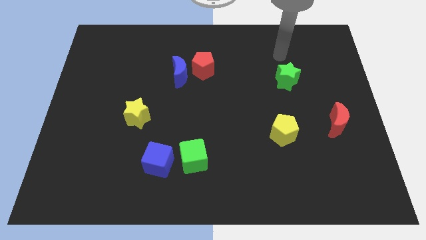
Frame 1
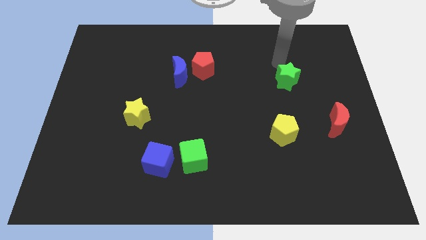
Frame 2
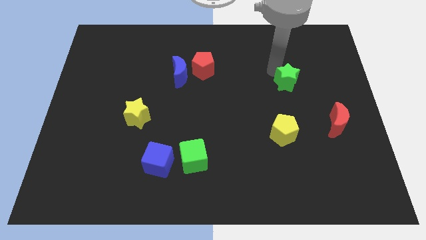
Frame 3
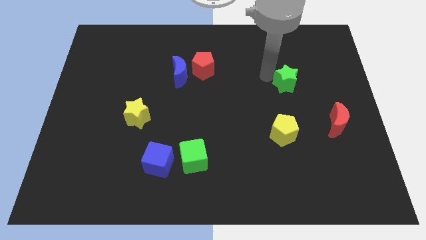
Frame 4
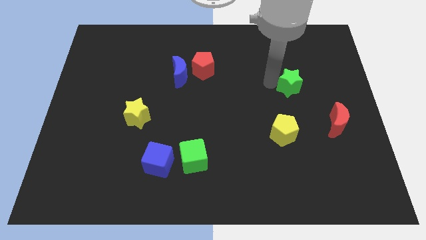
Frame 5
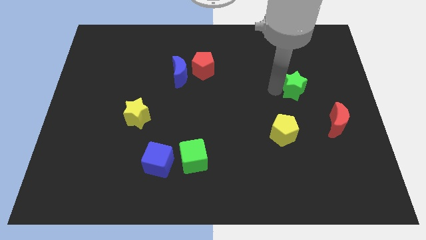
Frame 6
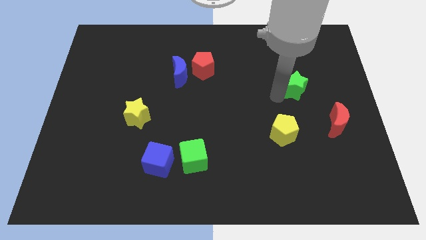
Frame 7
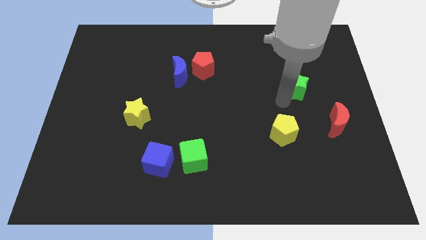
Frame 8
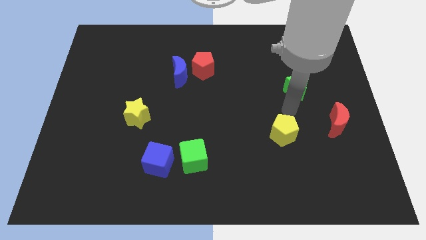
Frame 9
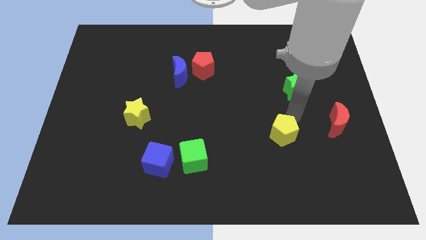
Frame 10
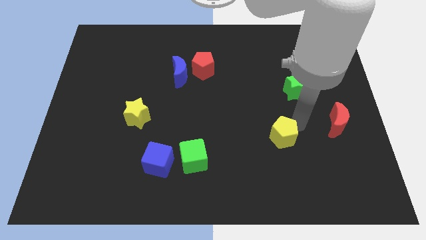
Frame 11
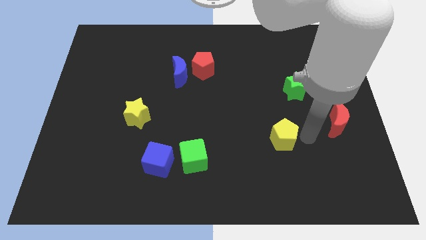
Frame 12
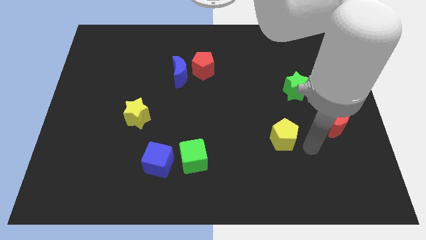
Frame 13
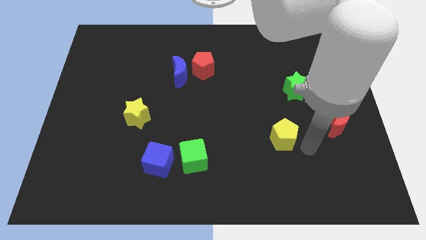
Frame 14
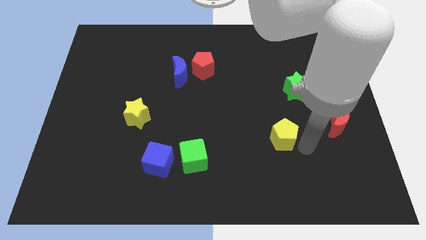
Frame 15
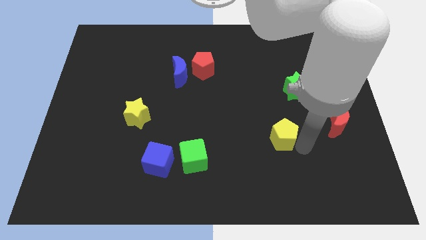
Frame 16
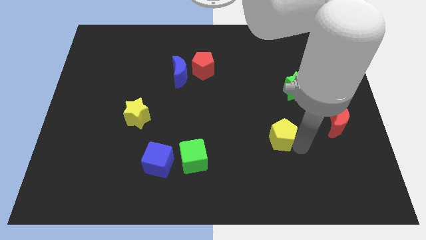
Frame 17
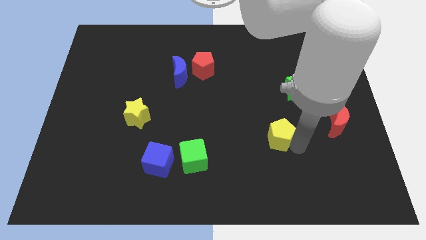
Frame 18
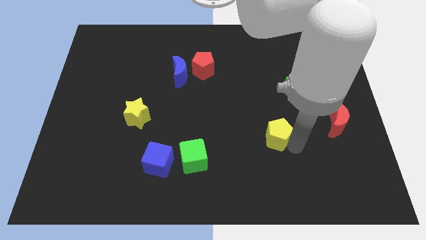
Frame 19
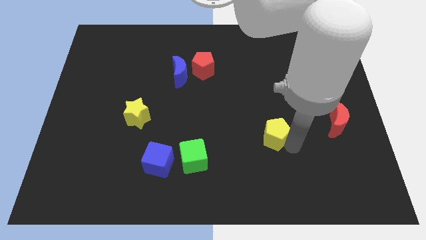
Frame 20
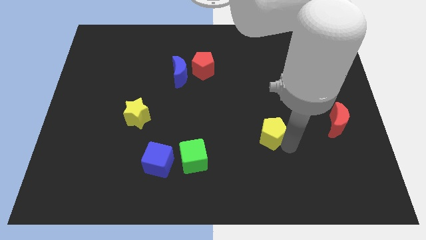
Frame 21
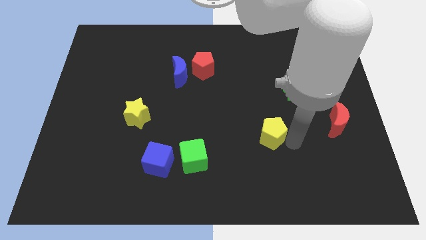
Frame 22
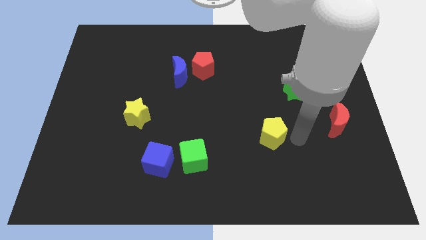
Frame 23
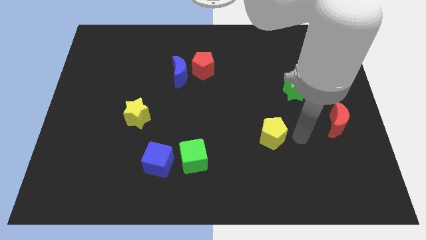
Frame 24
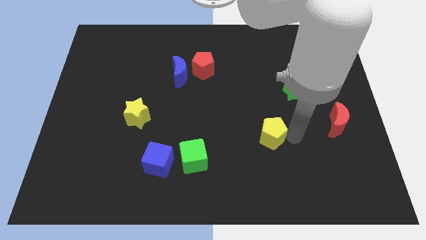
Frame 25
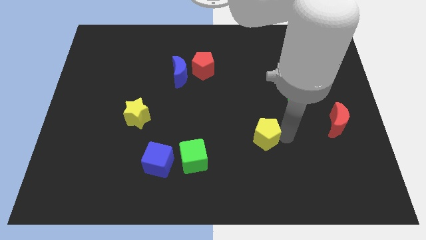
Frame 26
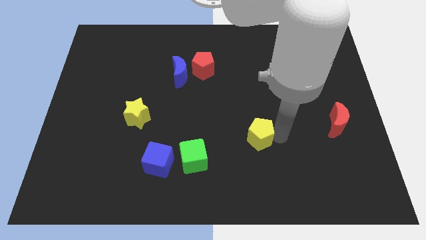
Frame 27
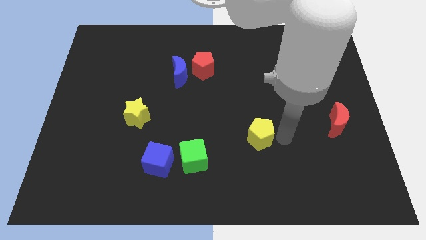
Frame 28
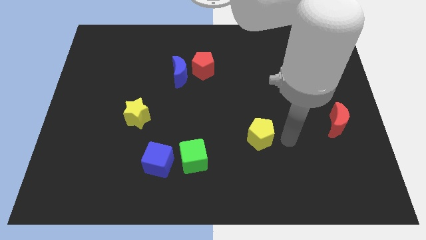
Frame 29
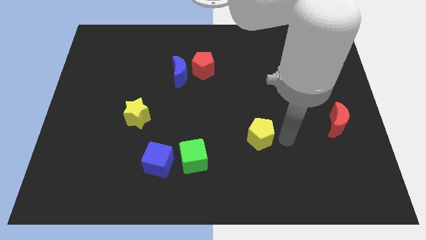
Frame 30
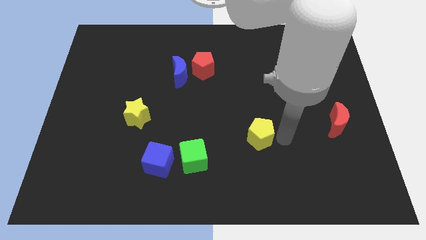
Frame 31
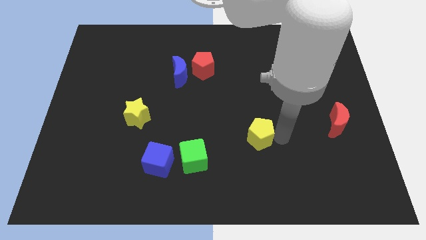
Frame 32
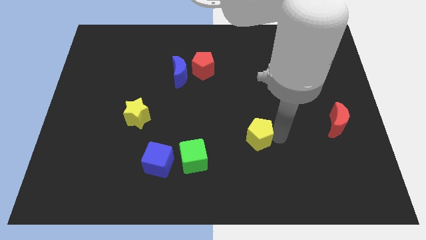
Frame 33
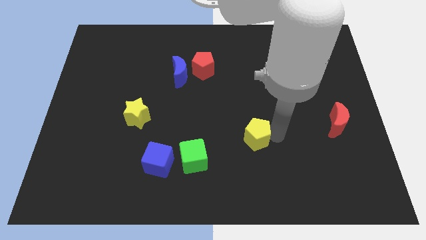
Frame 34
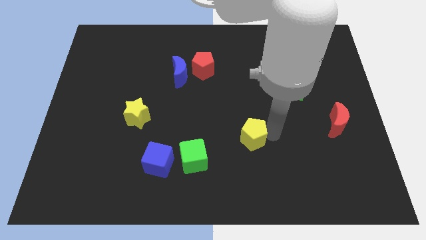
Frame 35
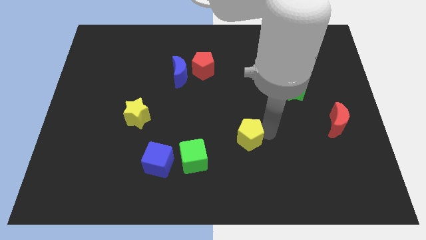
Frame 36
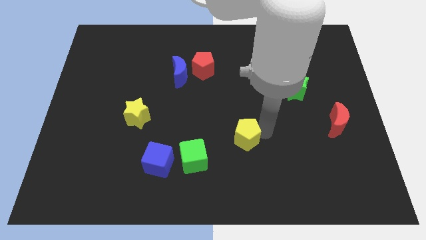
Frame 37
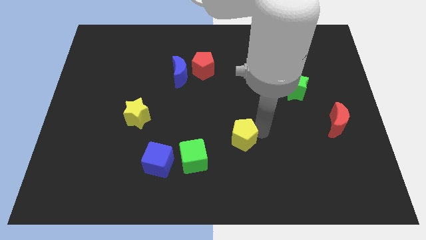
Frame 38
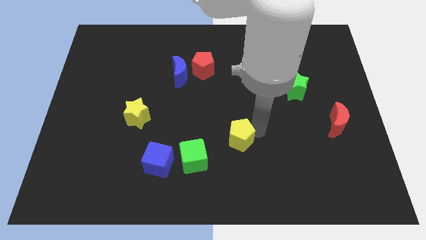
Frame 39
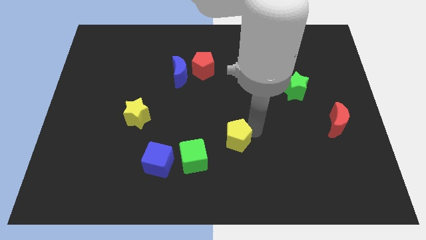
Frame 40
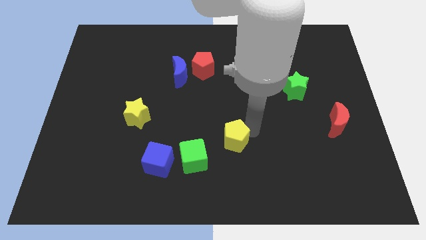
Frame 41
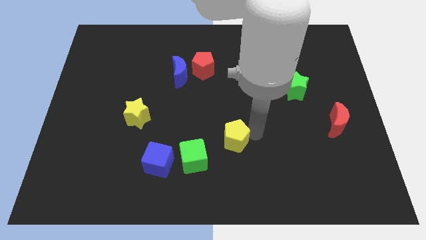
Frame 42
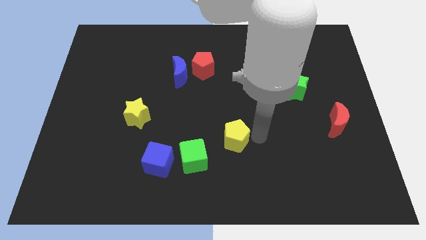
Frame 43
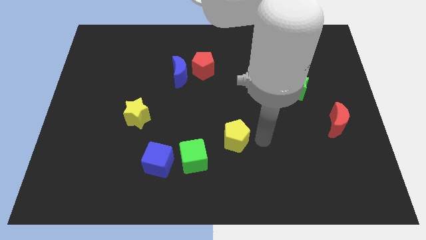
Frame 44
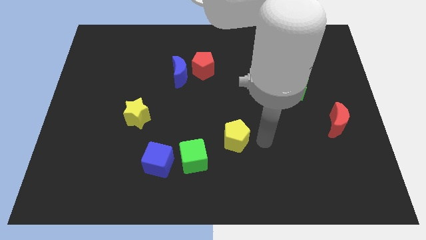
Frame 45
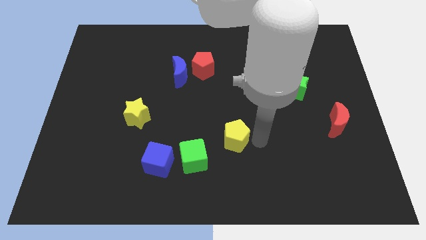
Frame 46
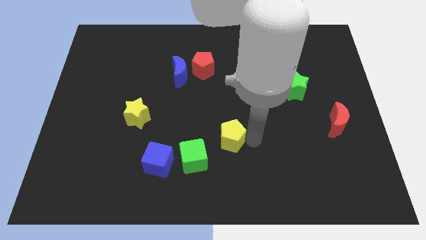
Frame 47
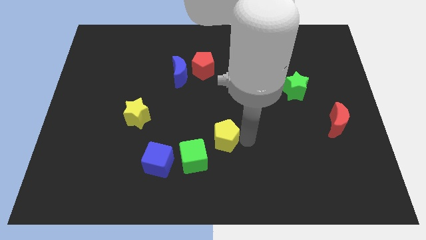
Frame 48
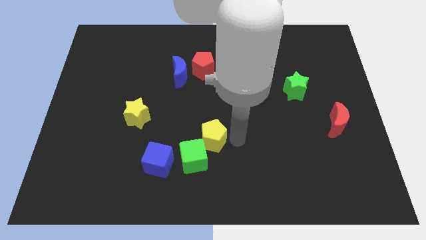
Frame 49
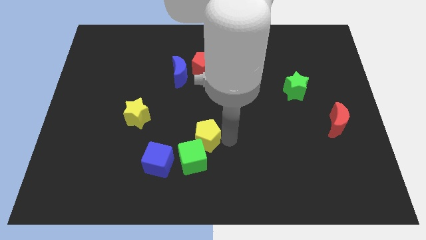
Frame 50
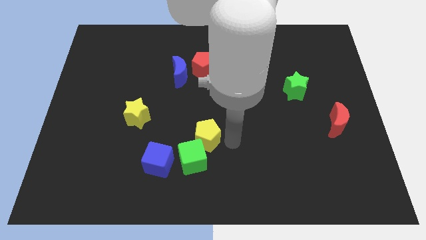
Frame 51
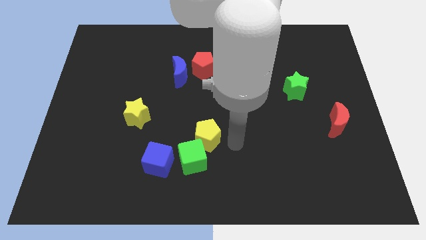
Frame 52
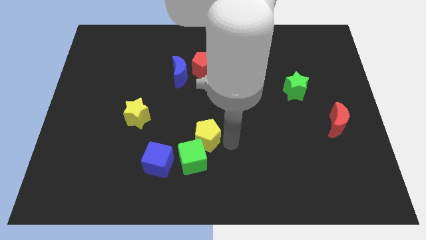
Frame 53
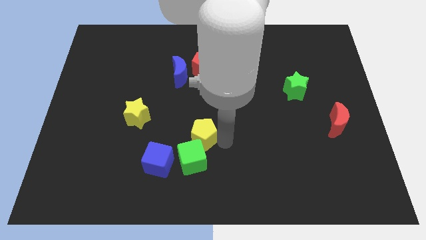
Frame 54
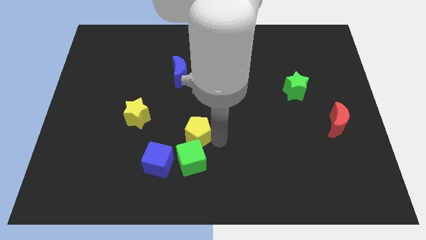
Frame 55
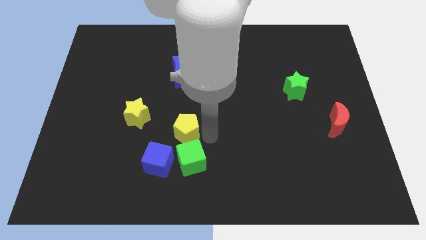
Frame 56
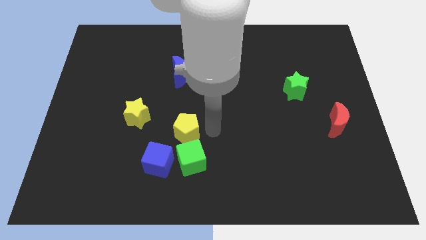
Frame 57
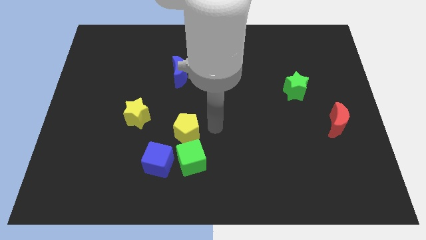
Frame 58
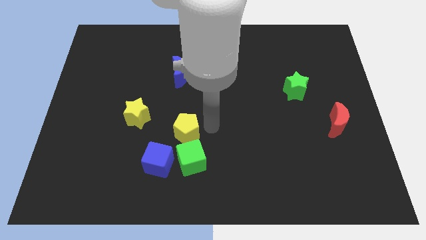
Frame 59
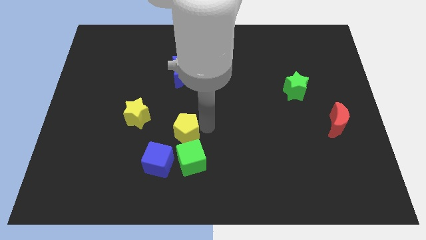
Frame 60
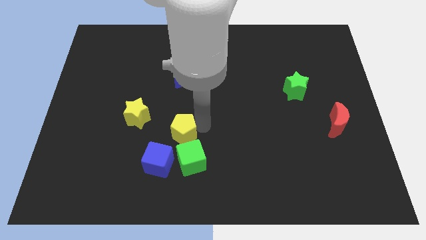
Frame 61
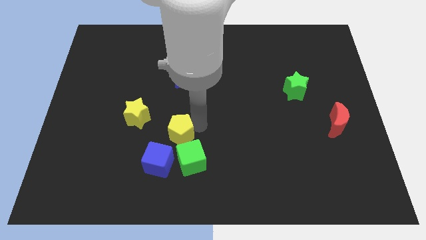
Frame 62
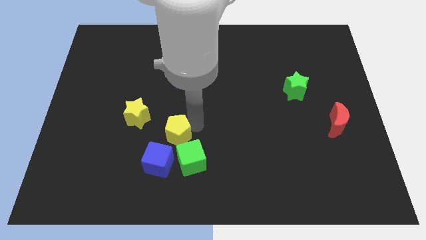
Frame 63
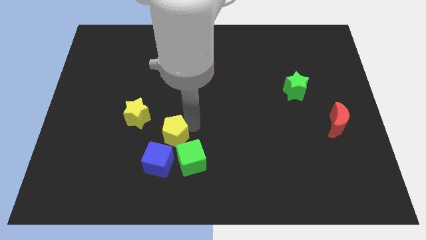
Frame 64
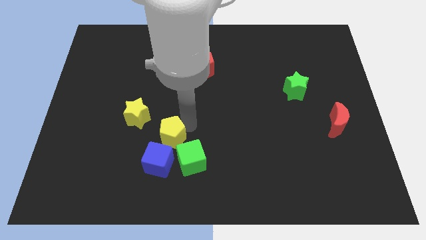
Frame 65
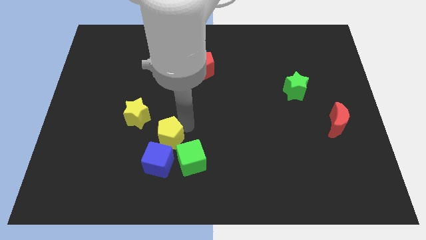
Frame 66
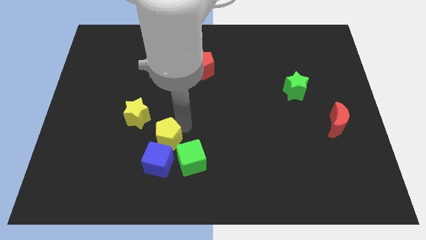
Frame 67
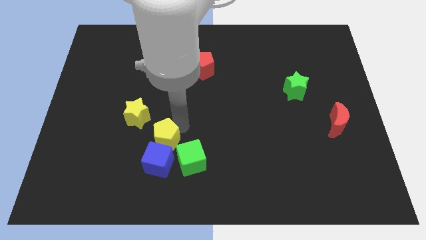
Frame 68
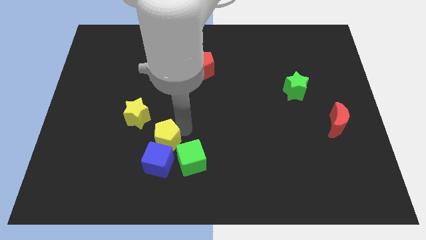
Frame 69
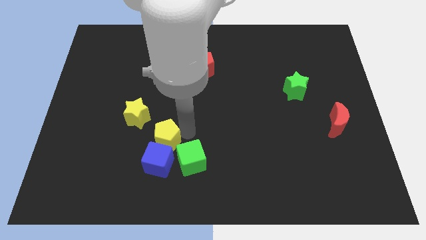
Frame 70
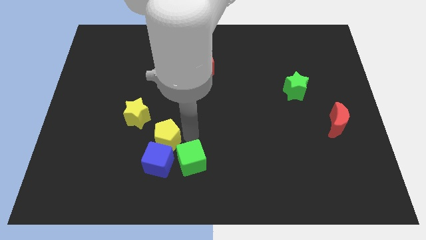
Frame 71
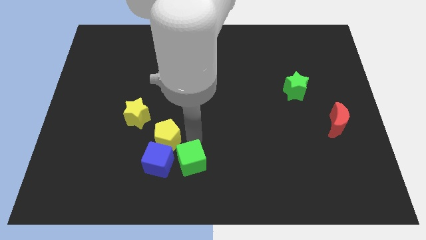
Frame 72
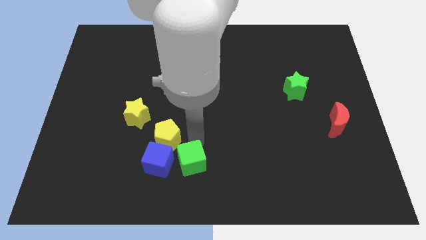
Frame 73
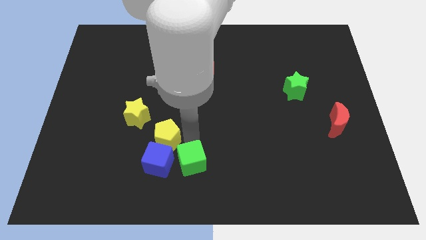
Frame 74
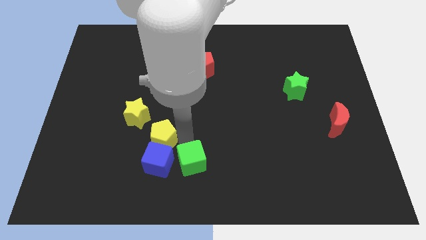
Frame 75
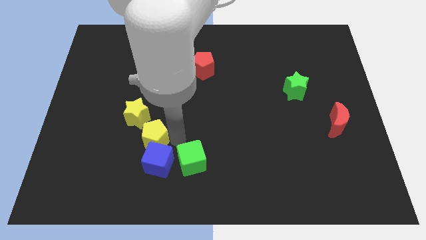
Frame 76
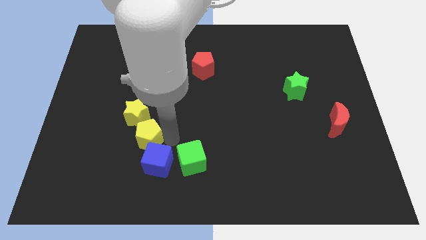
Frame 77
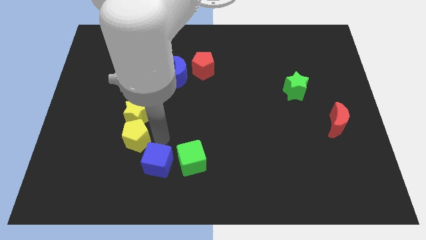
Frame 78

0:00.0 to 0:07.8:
slide the yellow pentagon to the bottom left side of the yellow star
